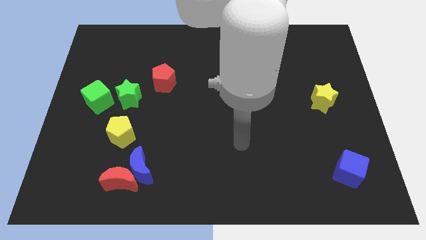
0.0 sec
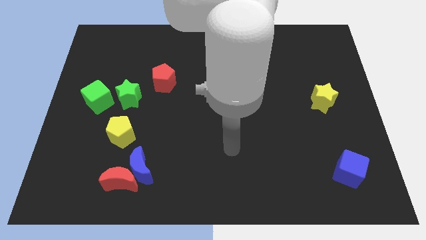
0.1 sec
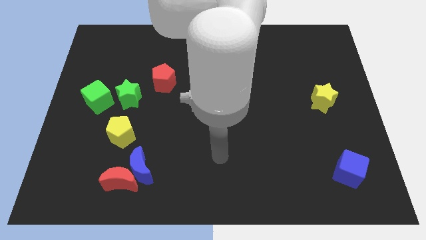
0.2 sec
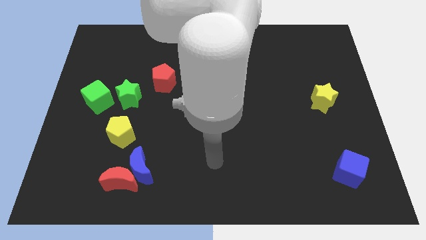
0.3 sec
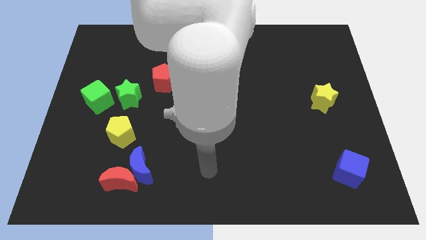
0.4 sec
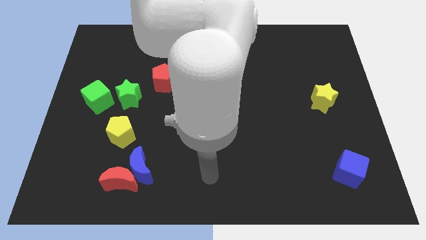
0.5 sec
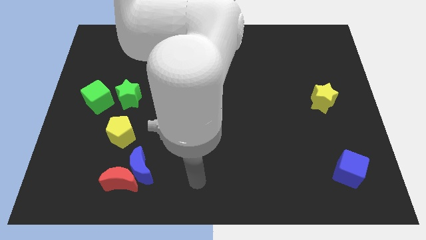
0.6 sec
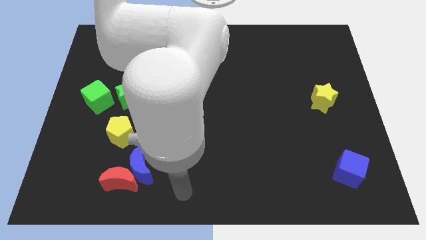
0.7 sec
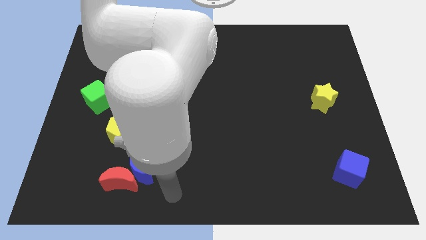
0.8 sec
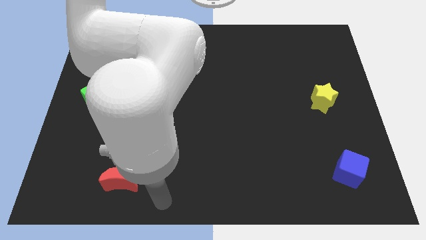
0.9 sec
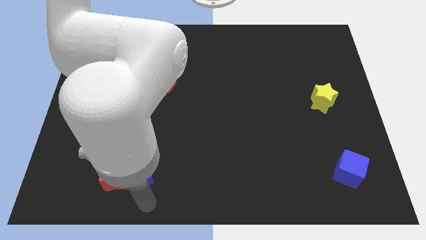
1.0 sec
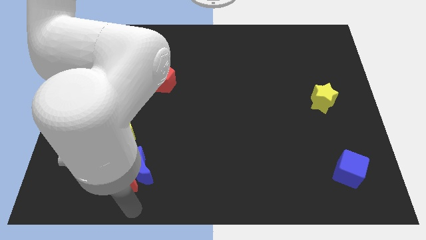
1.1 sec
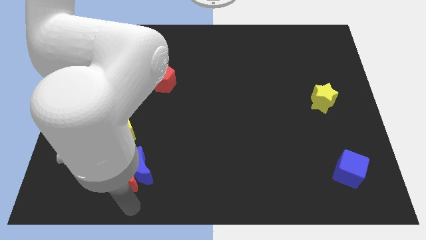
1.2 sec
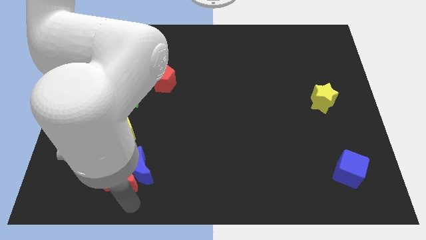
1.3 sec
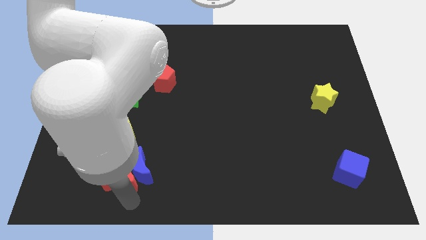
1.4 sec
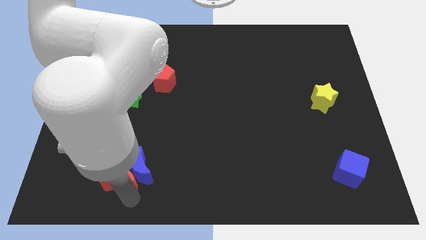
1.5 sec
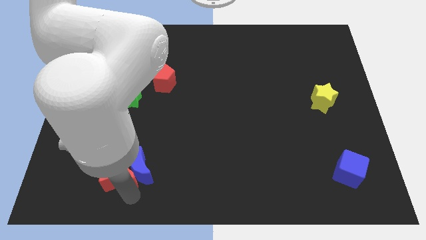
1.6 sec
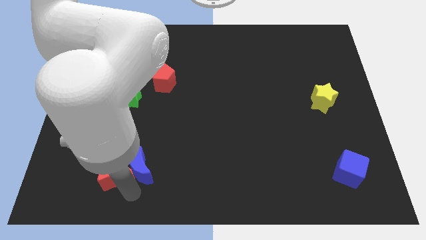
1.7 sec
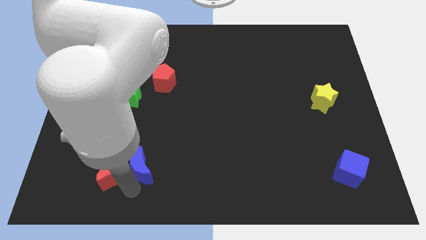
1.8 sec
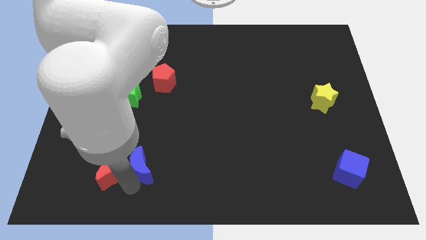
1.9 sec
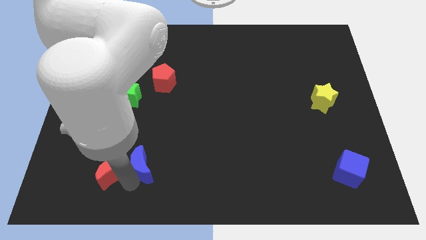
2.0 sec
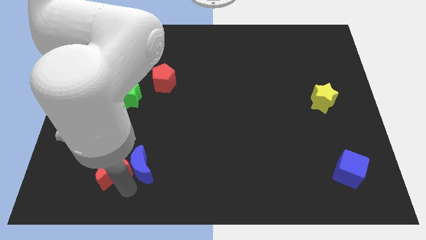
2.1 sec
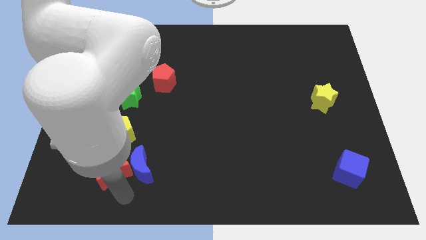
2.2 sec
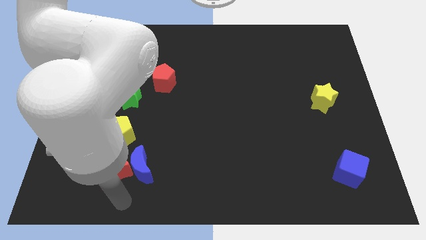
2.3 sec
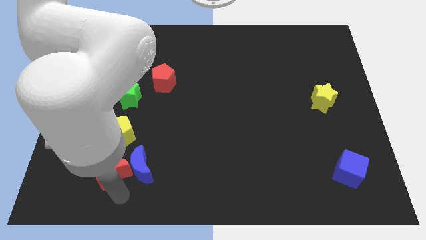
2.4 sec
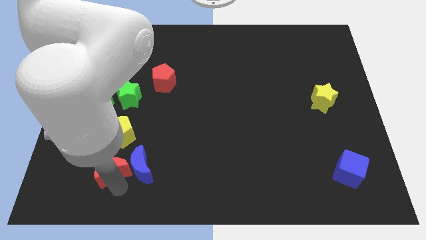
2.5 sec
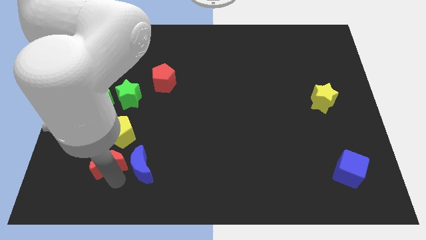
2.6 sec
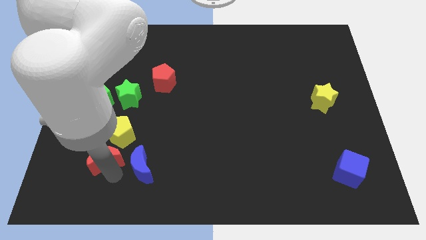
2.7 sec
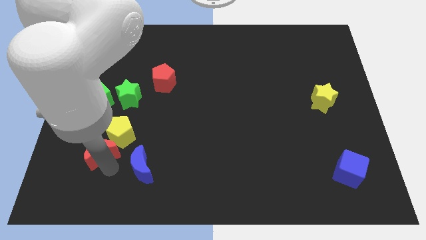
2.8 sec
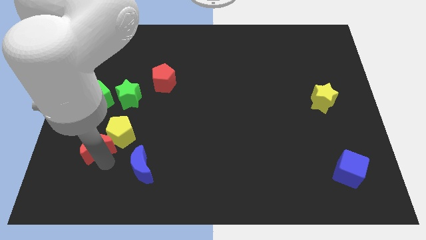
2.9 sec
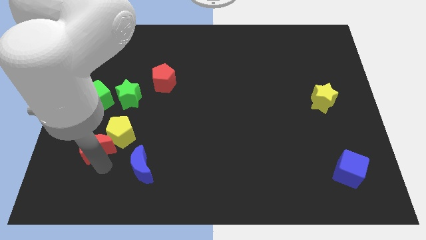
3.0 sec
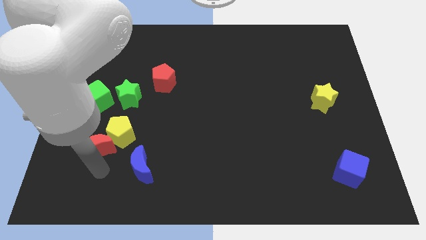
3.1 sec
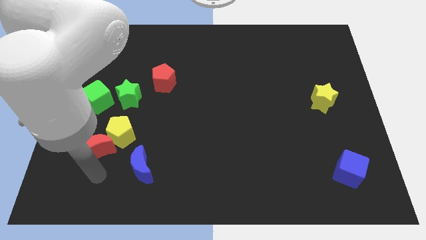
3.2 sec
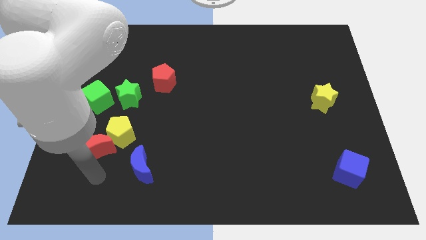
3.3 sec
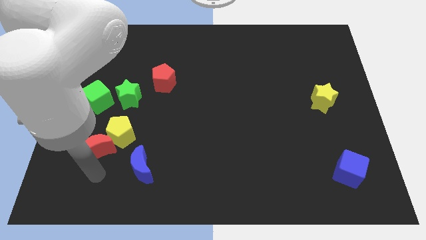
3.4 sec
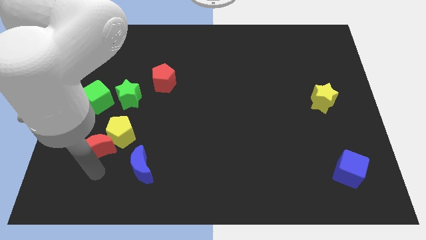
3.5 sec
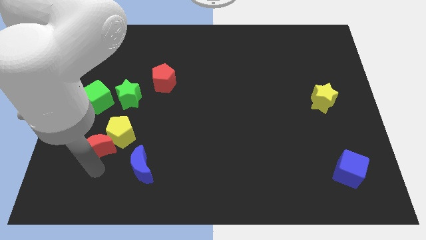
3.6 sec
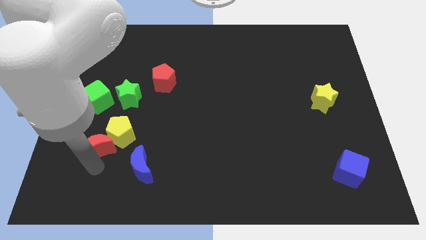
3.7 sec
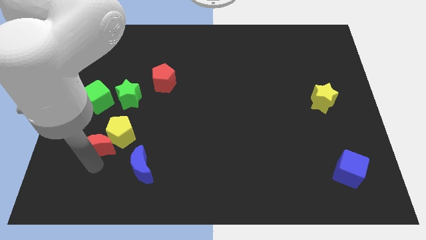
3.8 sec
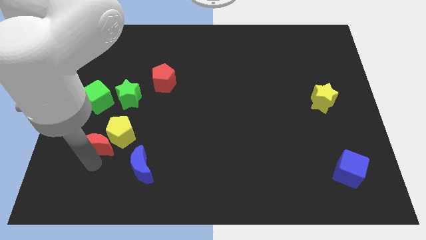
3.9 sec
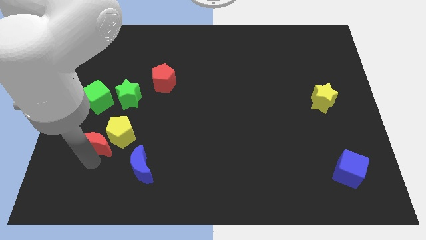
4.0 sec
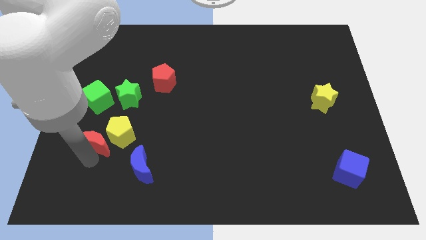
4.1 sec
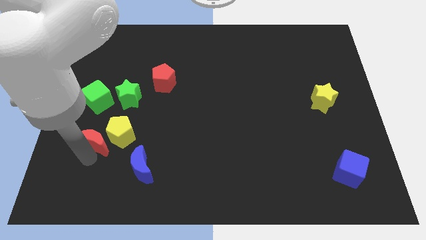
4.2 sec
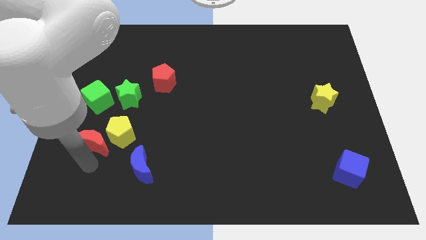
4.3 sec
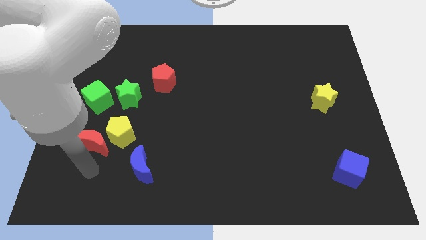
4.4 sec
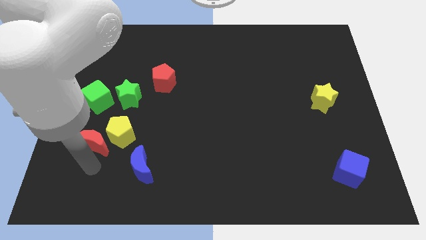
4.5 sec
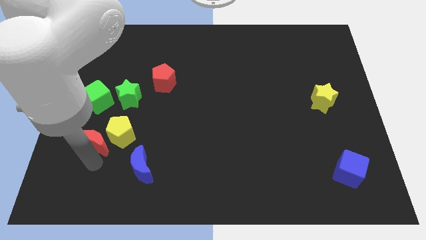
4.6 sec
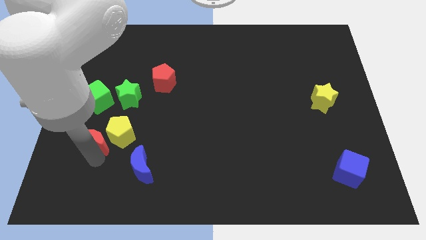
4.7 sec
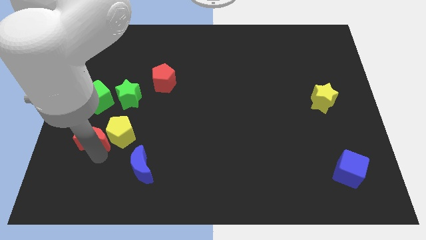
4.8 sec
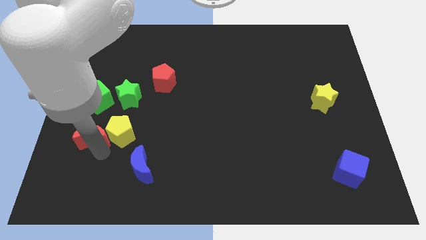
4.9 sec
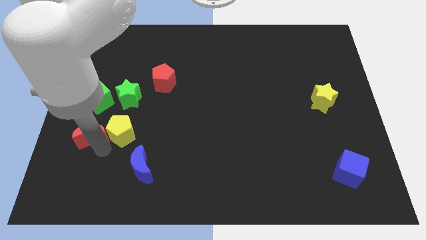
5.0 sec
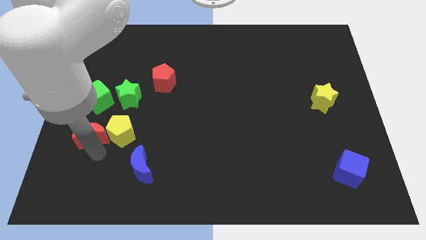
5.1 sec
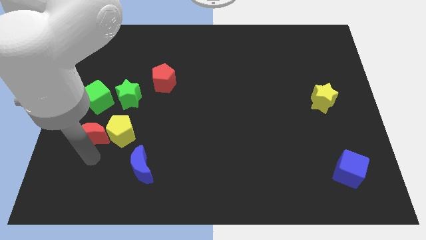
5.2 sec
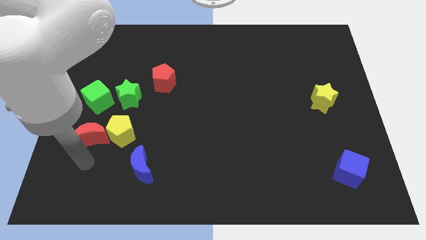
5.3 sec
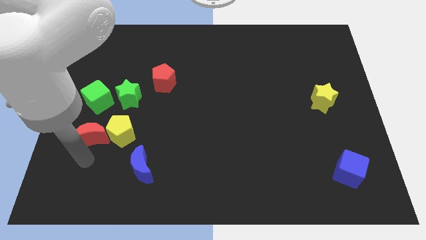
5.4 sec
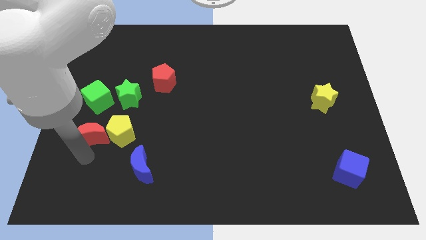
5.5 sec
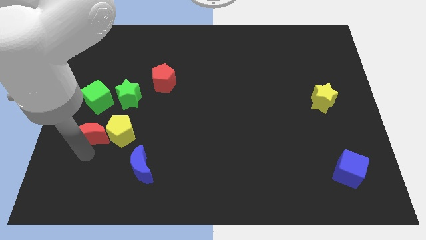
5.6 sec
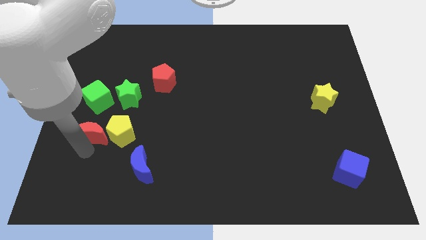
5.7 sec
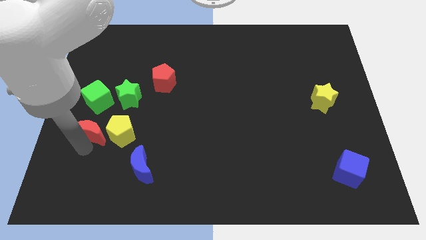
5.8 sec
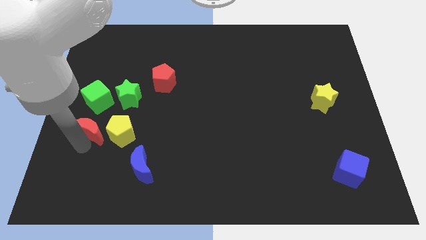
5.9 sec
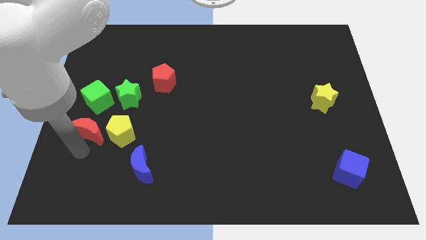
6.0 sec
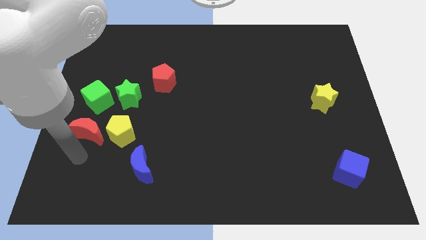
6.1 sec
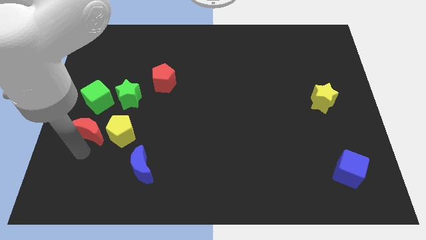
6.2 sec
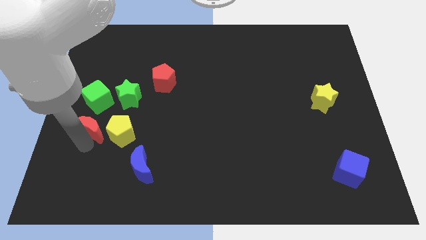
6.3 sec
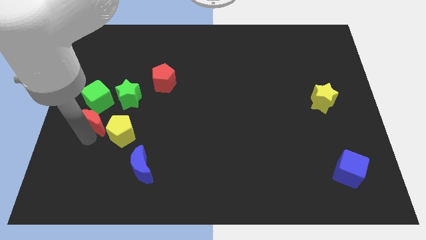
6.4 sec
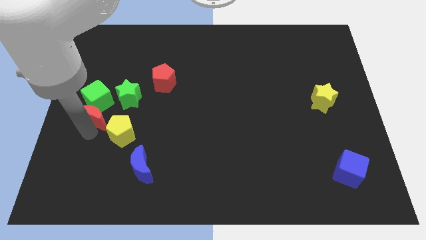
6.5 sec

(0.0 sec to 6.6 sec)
slide the red moon next to the green cube
